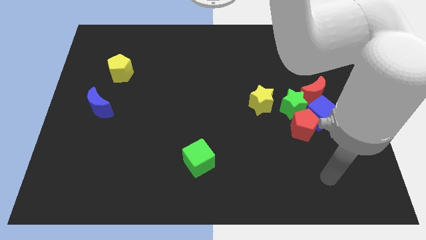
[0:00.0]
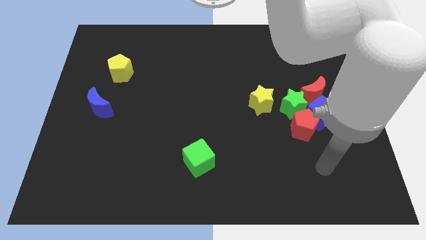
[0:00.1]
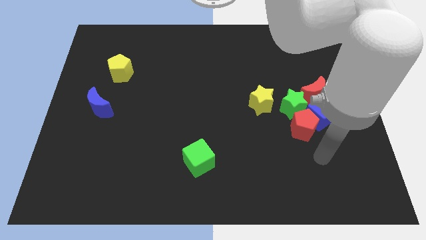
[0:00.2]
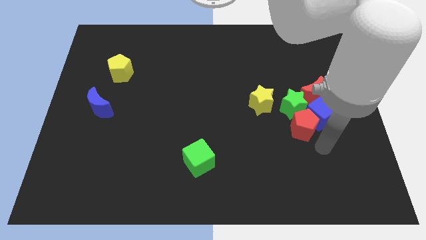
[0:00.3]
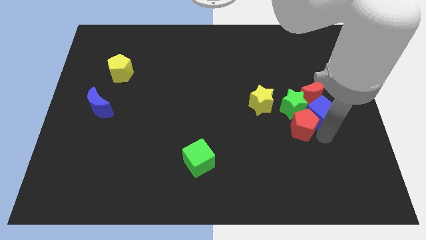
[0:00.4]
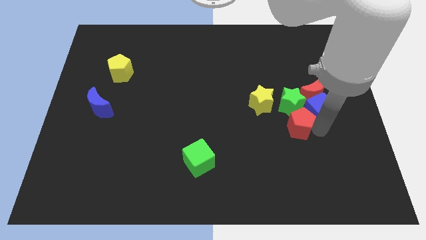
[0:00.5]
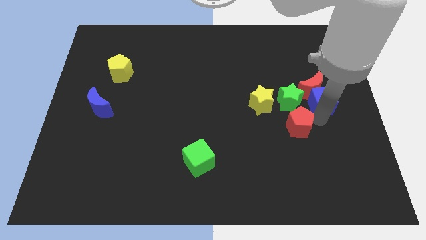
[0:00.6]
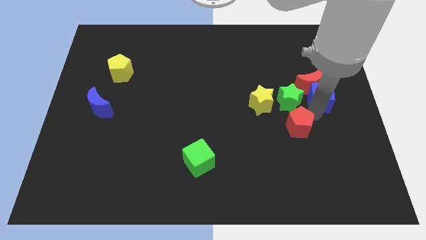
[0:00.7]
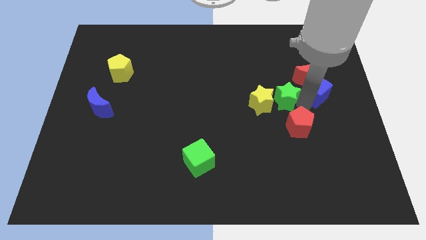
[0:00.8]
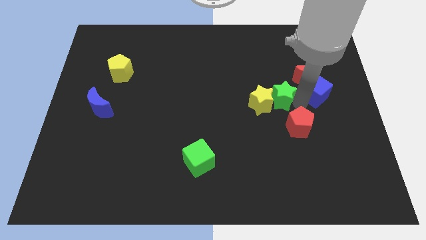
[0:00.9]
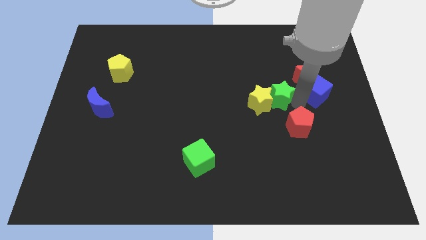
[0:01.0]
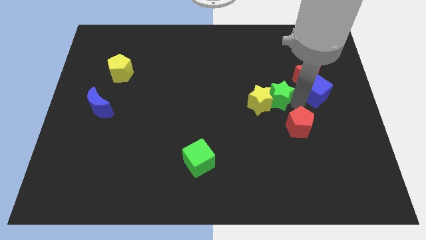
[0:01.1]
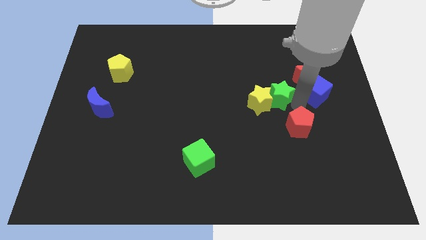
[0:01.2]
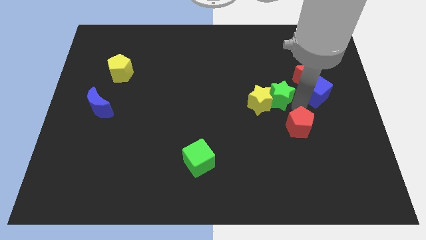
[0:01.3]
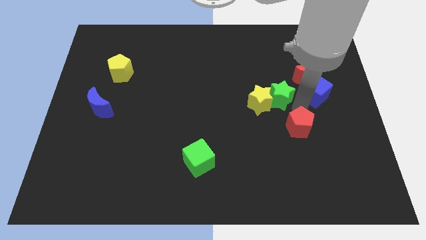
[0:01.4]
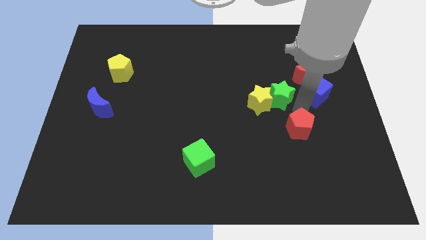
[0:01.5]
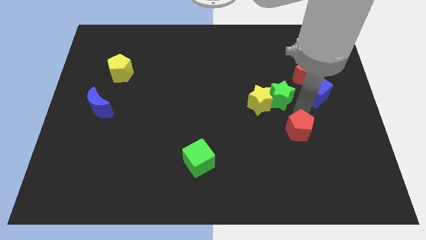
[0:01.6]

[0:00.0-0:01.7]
move the red pentagon away from the blue cube and green star

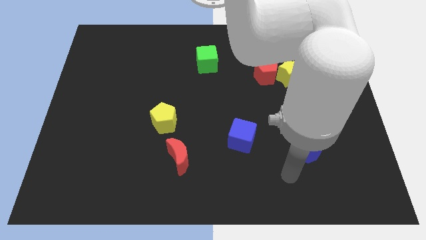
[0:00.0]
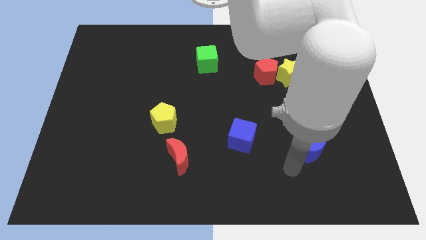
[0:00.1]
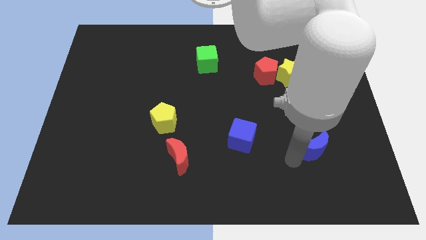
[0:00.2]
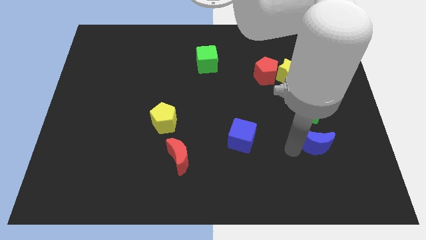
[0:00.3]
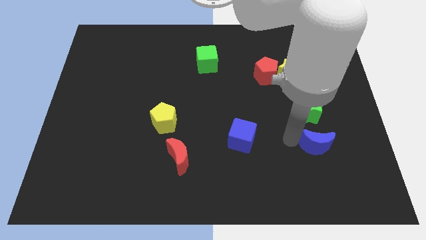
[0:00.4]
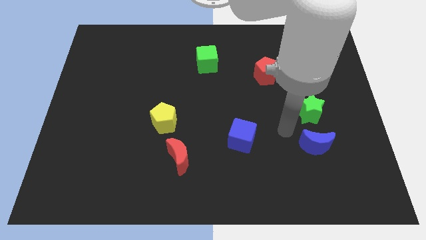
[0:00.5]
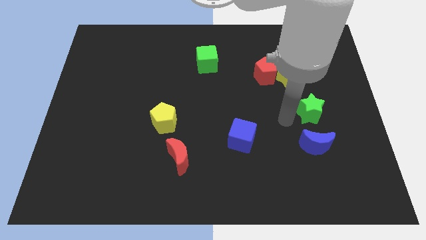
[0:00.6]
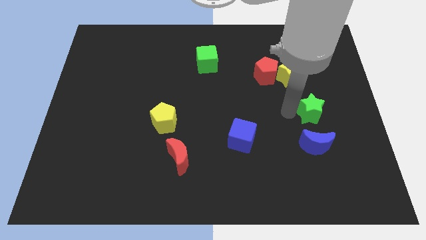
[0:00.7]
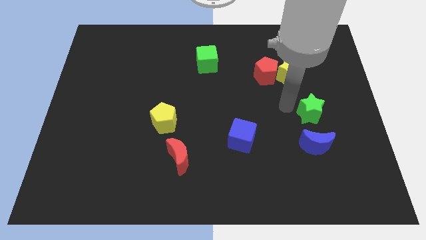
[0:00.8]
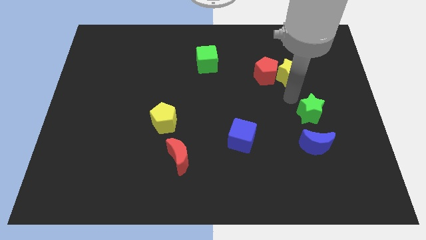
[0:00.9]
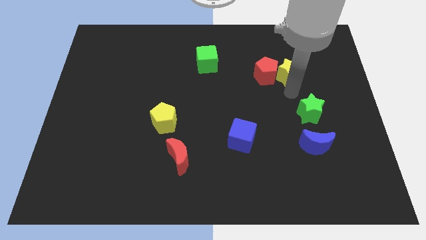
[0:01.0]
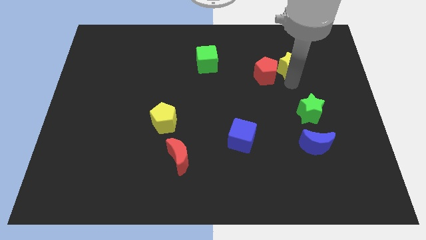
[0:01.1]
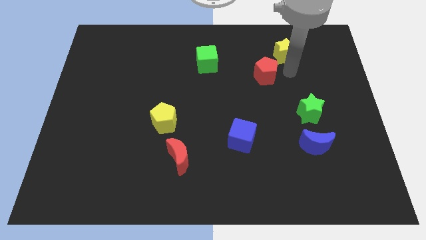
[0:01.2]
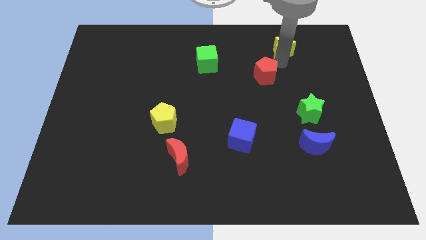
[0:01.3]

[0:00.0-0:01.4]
separate the red pentagon from the yellow star

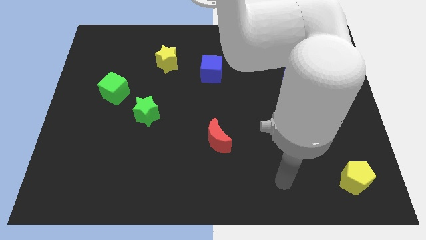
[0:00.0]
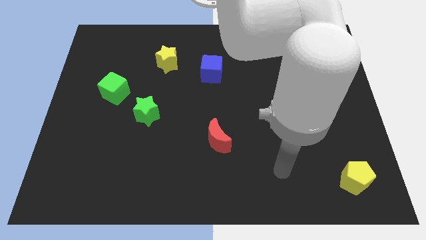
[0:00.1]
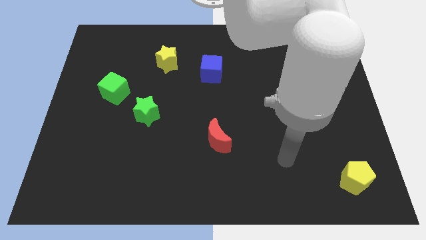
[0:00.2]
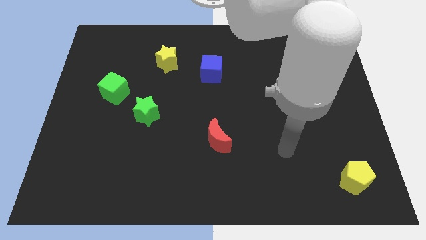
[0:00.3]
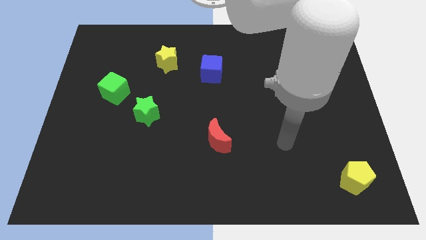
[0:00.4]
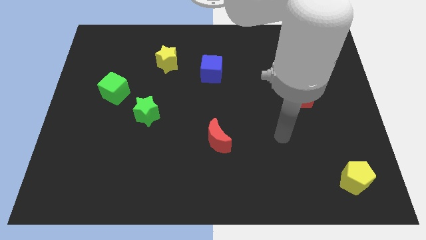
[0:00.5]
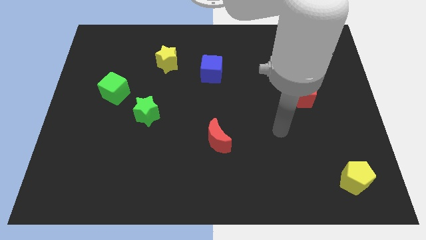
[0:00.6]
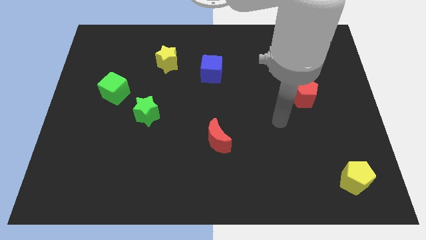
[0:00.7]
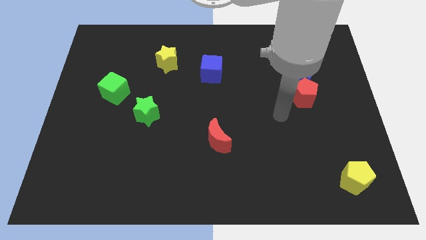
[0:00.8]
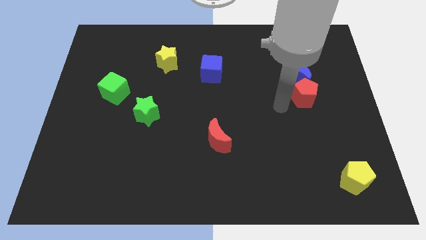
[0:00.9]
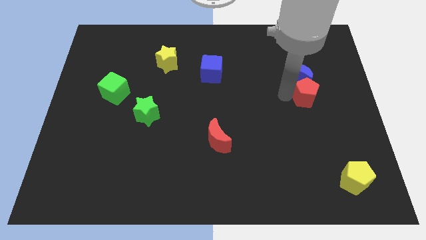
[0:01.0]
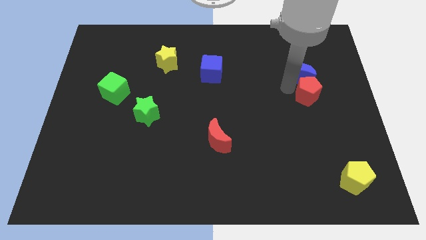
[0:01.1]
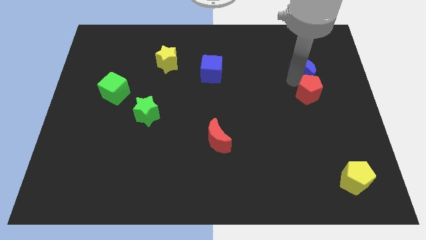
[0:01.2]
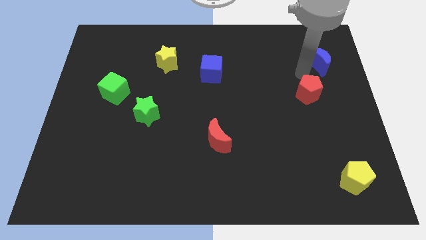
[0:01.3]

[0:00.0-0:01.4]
separate the red pentagon from the blue moon

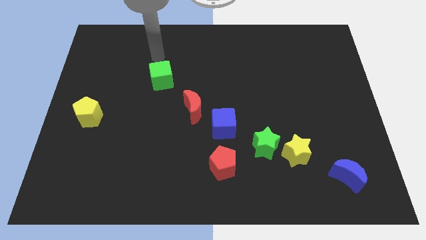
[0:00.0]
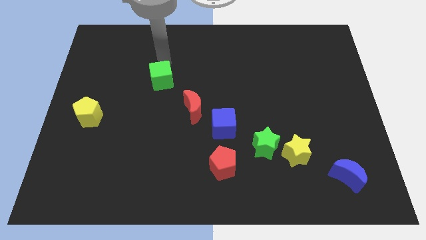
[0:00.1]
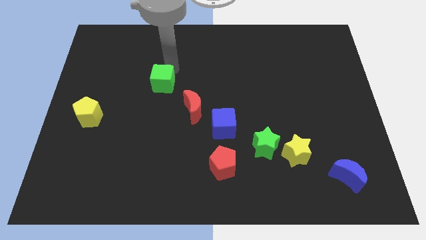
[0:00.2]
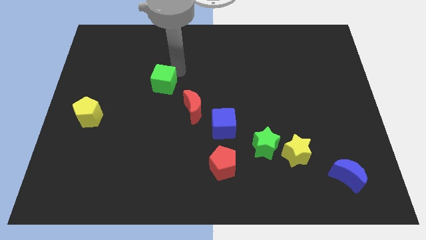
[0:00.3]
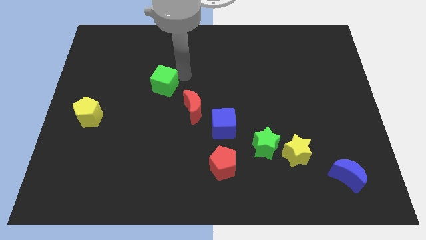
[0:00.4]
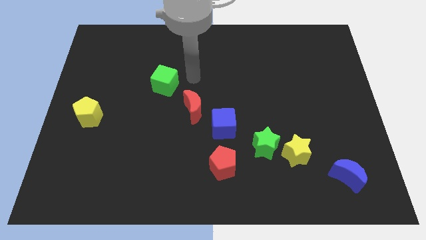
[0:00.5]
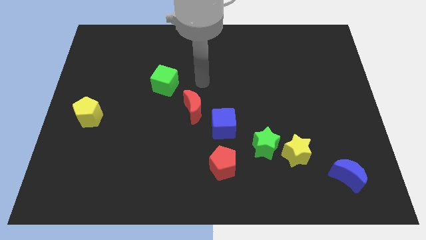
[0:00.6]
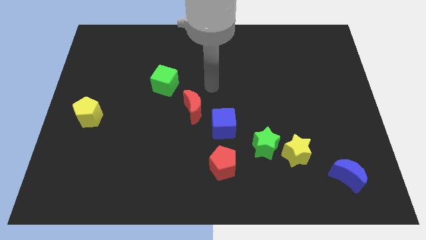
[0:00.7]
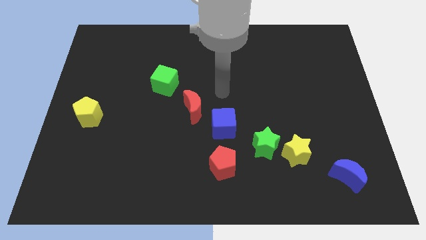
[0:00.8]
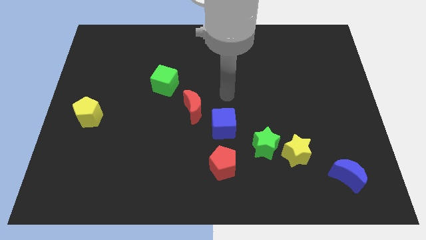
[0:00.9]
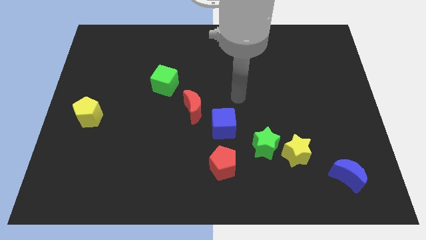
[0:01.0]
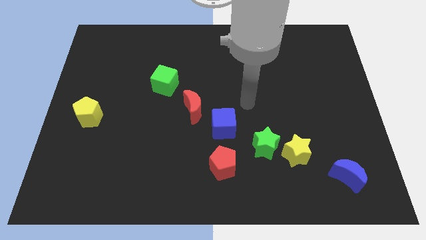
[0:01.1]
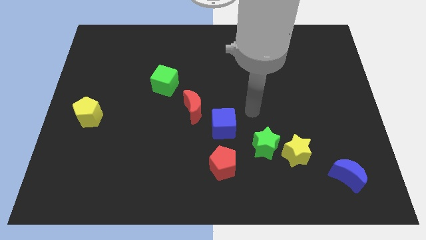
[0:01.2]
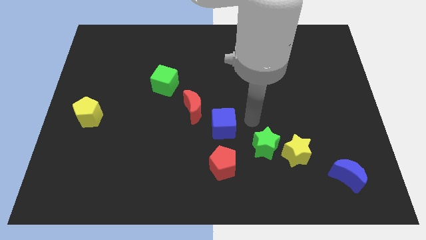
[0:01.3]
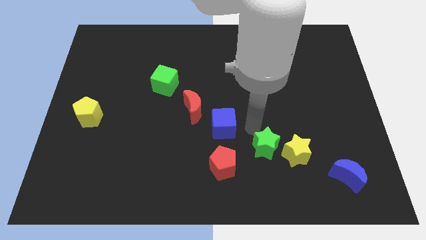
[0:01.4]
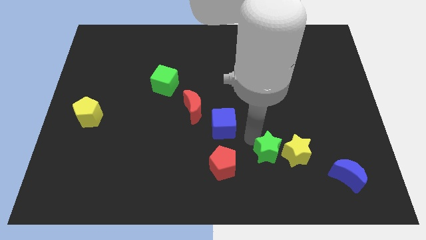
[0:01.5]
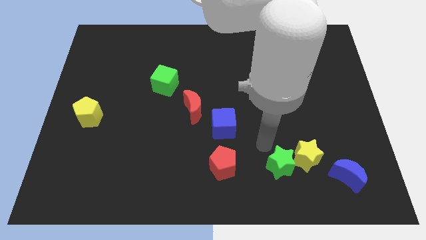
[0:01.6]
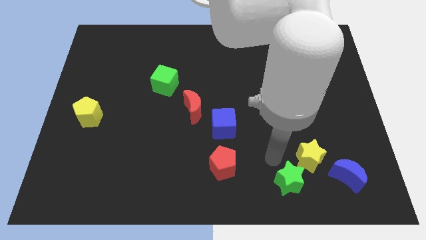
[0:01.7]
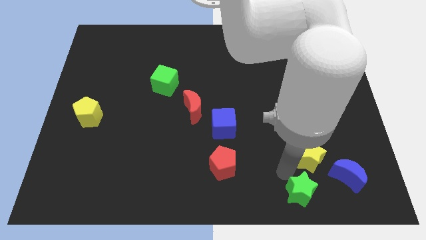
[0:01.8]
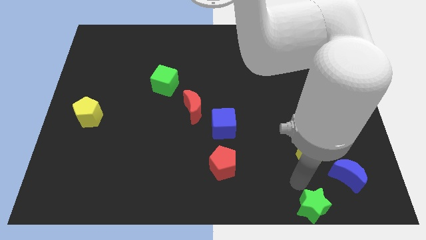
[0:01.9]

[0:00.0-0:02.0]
separate the yellow star from the green star

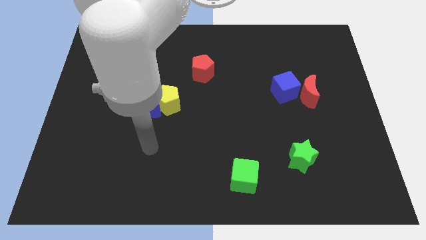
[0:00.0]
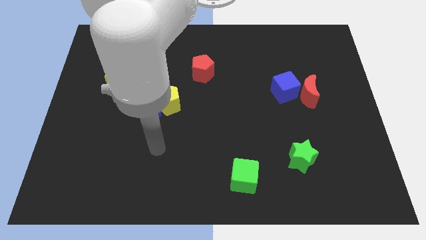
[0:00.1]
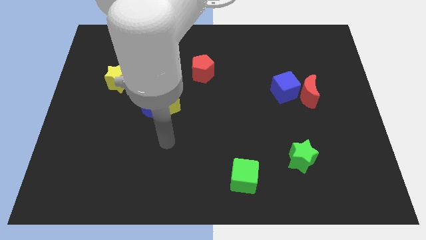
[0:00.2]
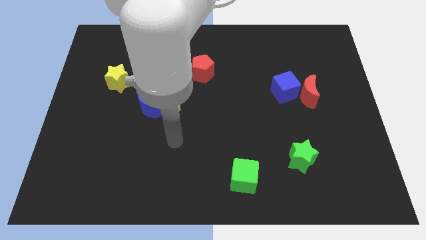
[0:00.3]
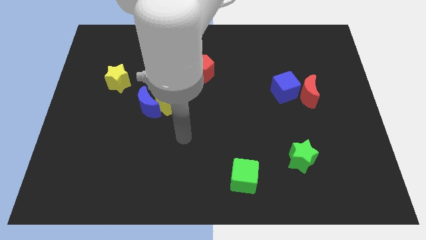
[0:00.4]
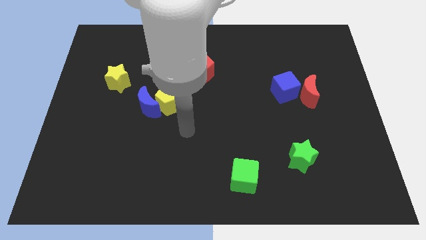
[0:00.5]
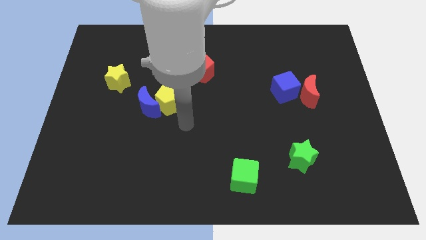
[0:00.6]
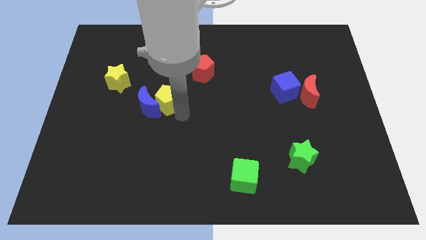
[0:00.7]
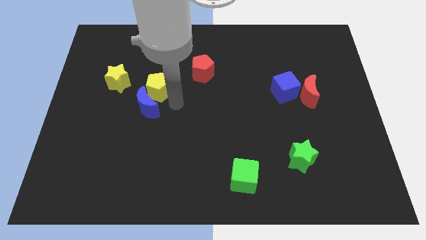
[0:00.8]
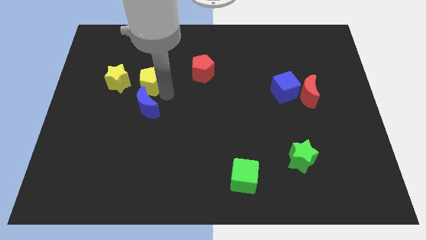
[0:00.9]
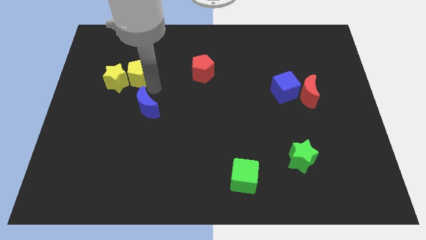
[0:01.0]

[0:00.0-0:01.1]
move the blue moon away from the yellow pentagon

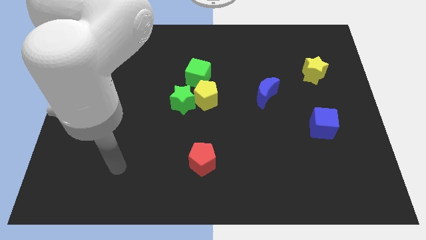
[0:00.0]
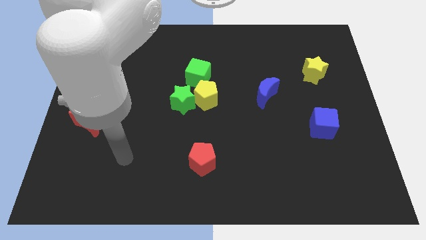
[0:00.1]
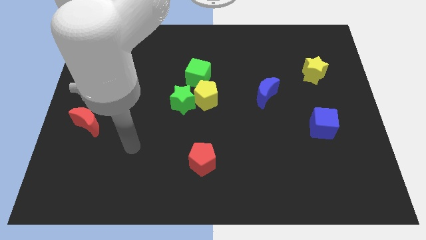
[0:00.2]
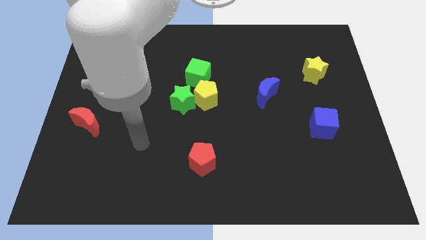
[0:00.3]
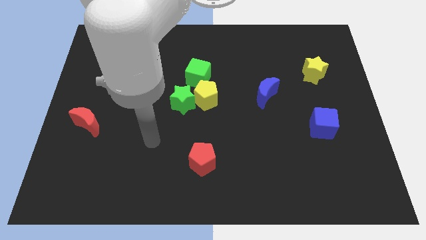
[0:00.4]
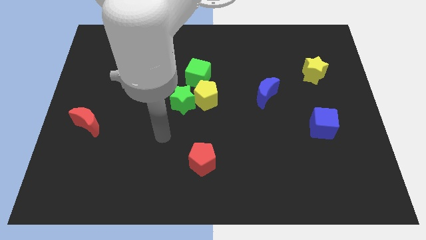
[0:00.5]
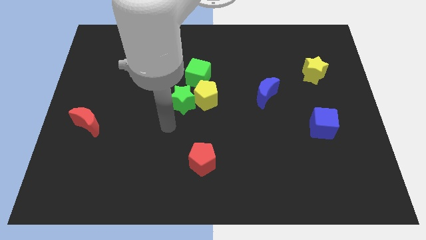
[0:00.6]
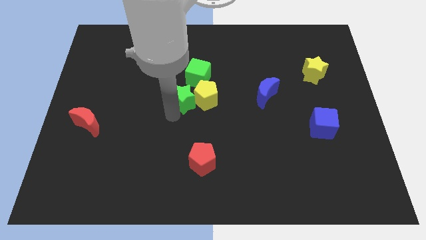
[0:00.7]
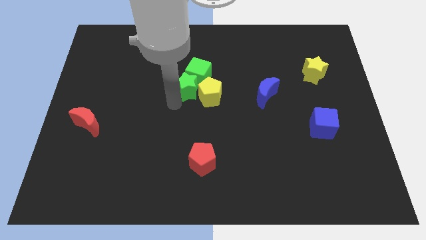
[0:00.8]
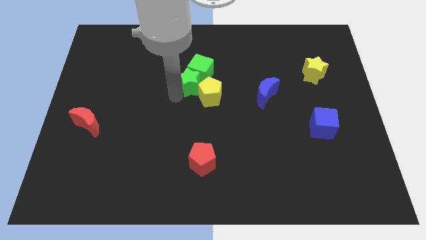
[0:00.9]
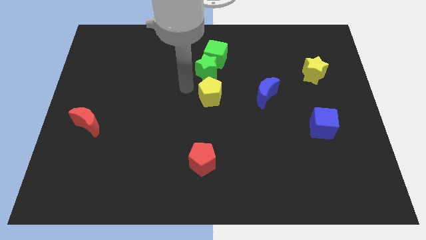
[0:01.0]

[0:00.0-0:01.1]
move the yellow pentagon away from the green star and green cube

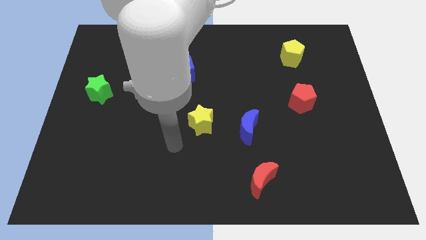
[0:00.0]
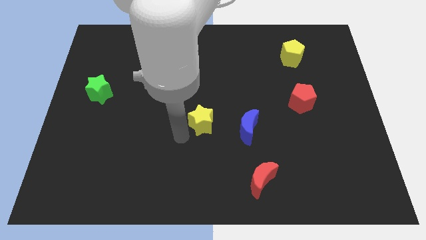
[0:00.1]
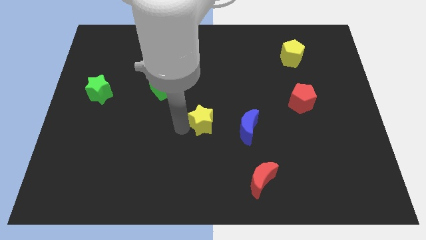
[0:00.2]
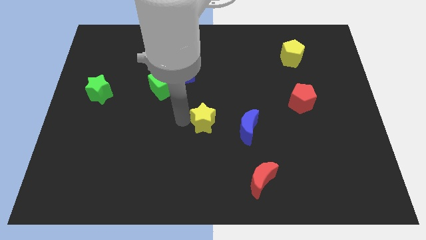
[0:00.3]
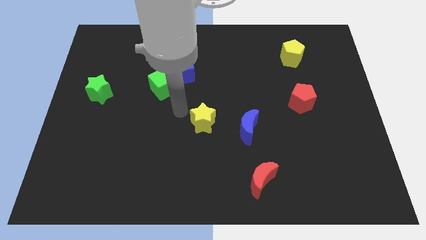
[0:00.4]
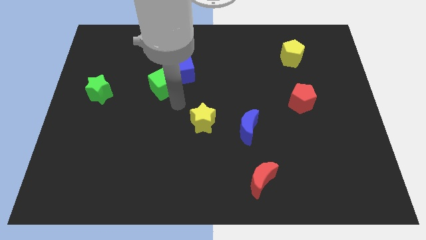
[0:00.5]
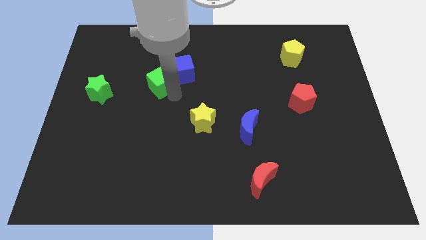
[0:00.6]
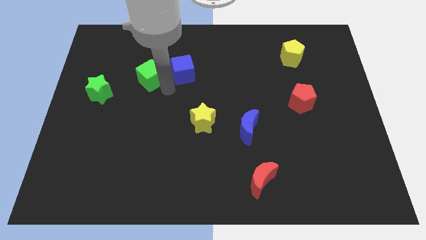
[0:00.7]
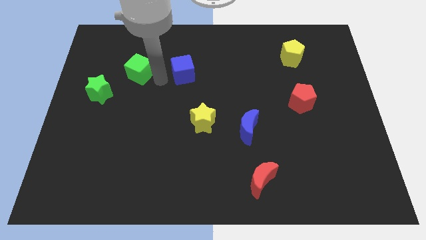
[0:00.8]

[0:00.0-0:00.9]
move the blue cube away from the green cube
